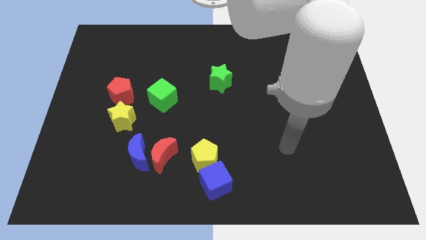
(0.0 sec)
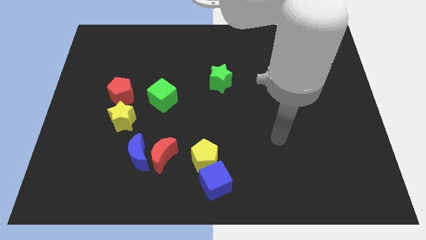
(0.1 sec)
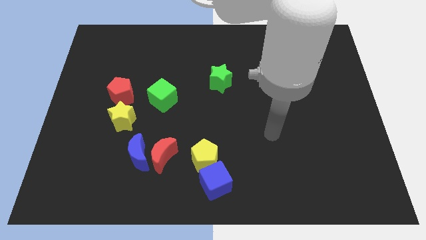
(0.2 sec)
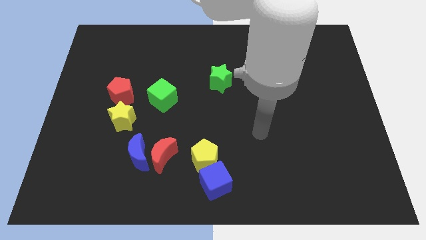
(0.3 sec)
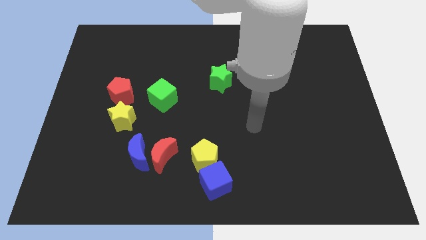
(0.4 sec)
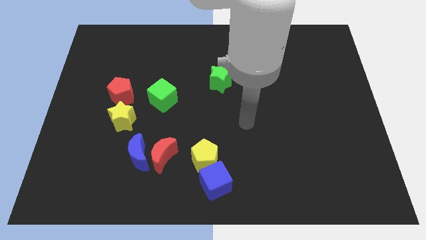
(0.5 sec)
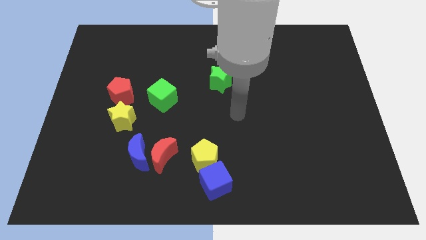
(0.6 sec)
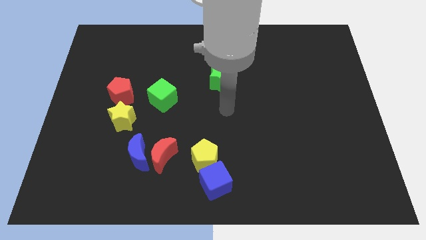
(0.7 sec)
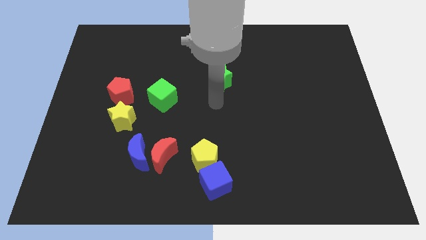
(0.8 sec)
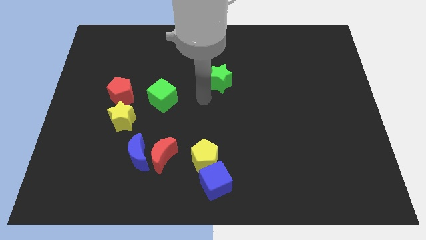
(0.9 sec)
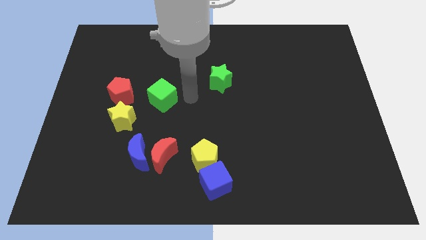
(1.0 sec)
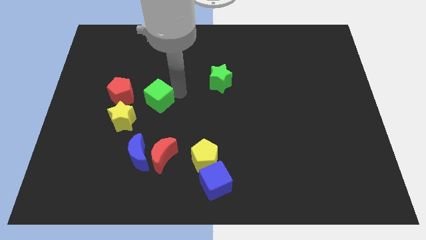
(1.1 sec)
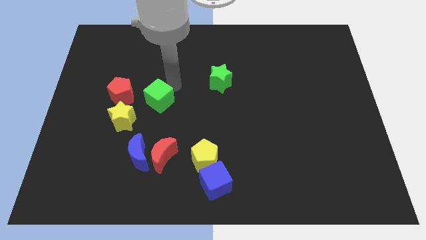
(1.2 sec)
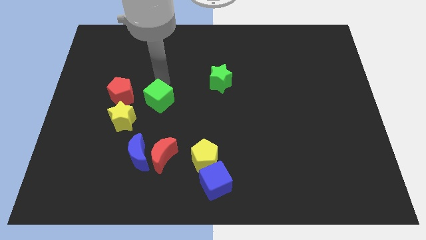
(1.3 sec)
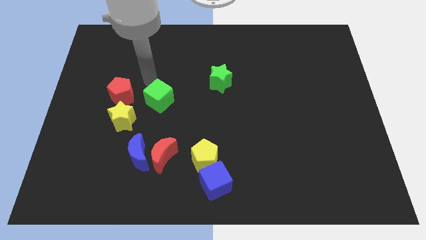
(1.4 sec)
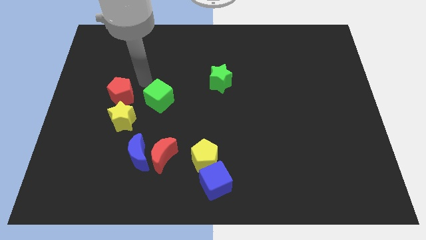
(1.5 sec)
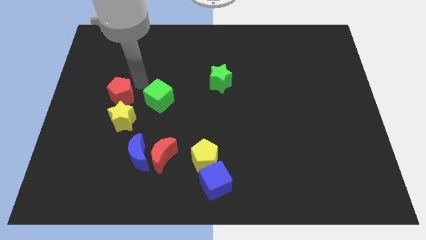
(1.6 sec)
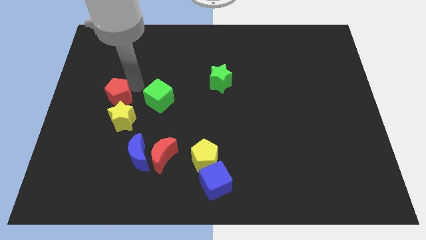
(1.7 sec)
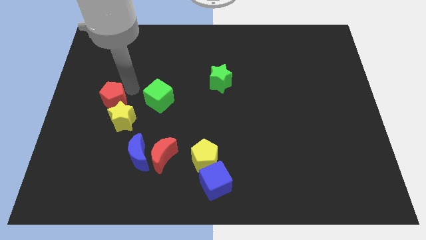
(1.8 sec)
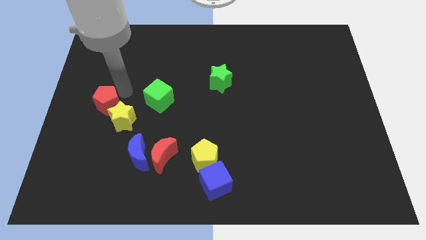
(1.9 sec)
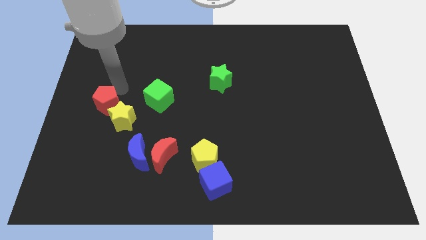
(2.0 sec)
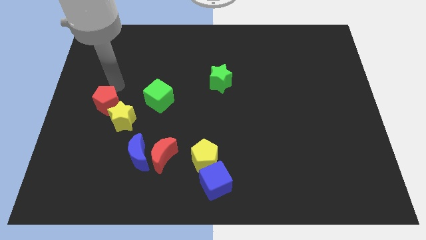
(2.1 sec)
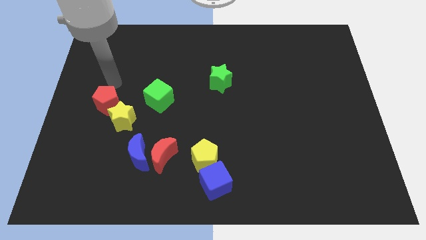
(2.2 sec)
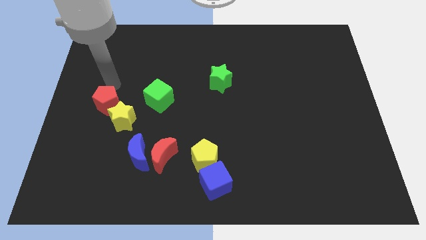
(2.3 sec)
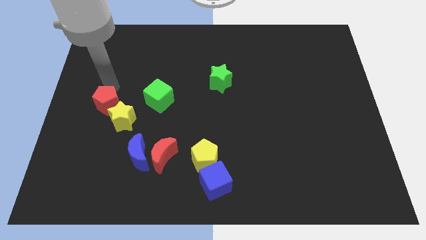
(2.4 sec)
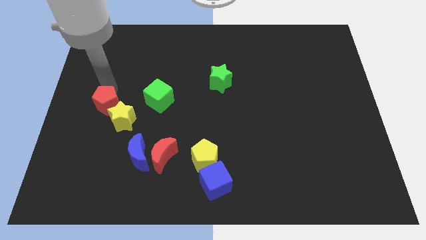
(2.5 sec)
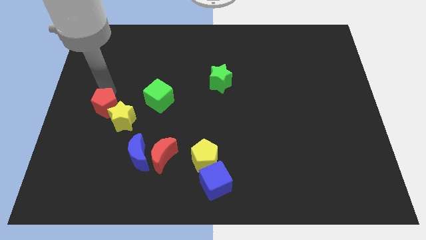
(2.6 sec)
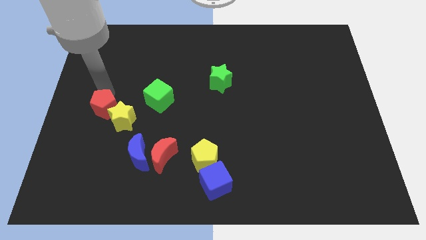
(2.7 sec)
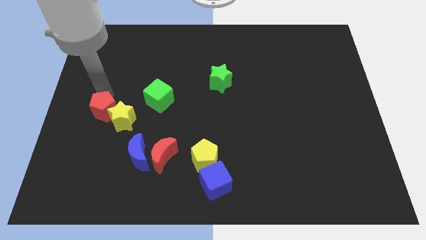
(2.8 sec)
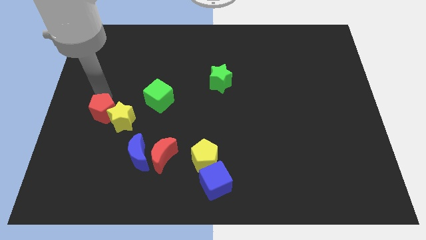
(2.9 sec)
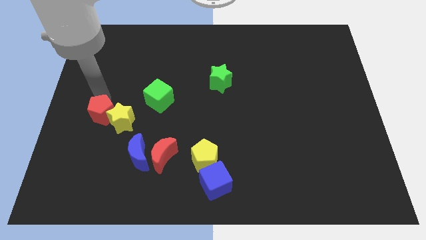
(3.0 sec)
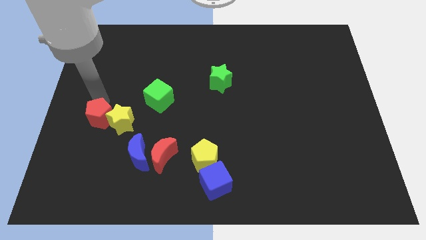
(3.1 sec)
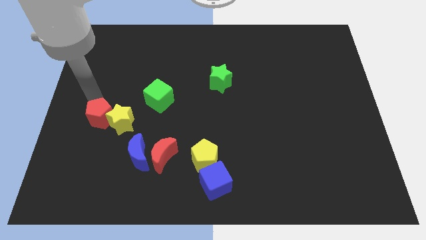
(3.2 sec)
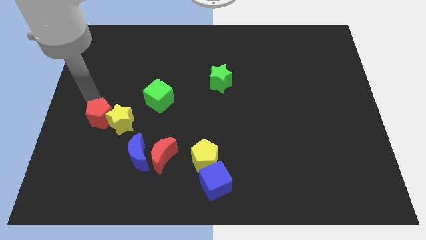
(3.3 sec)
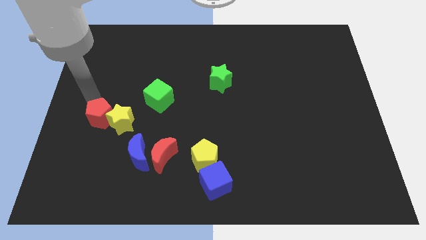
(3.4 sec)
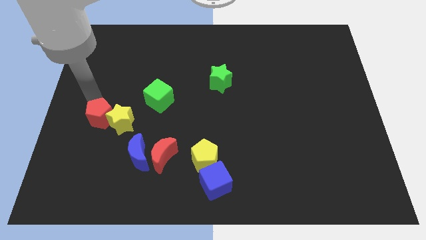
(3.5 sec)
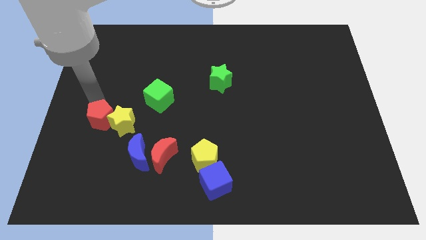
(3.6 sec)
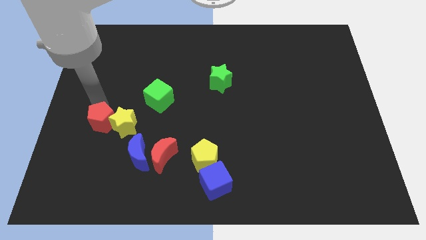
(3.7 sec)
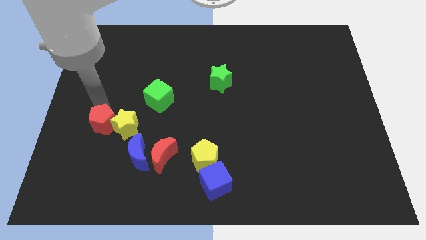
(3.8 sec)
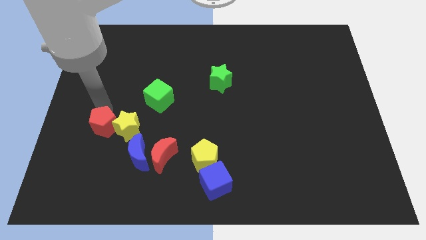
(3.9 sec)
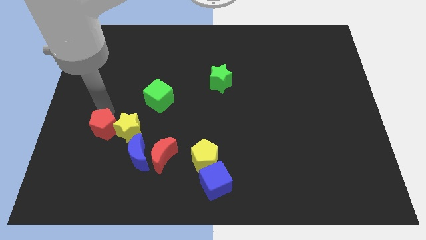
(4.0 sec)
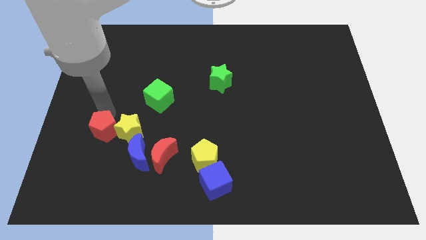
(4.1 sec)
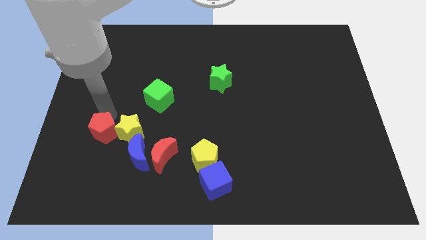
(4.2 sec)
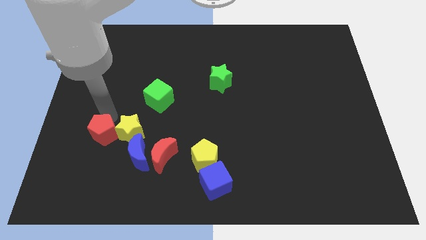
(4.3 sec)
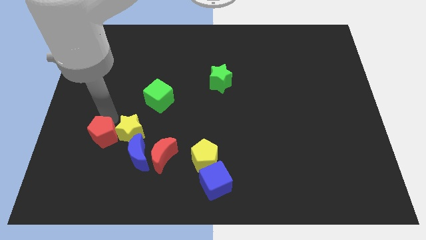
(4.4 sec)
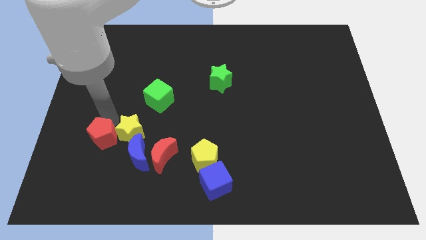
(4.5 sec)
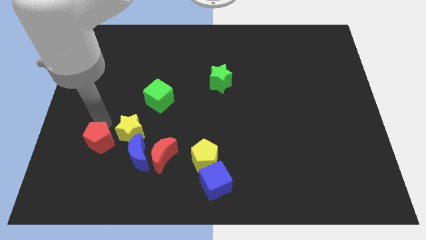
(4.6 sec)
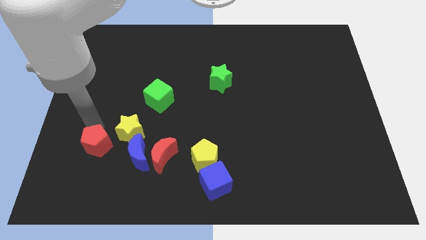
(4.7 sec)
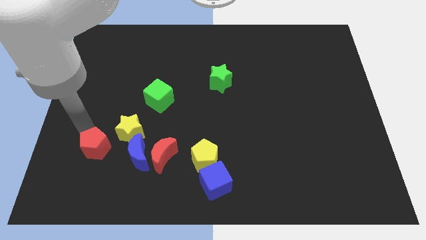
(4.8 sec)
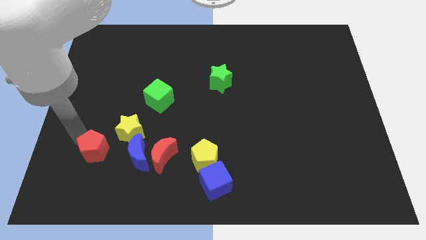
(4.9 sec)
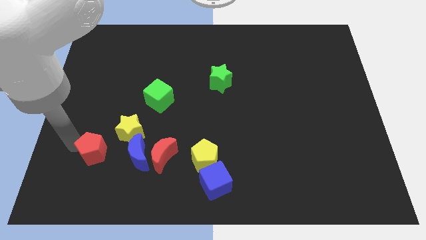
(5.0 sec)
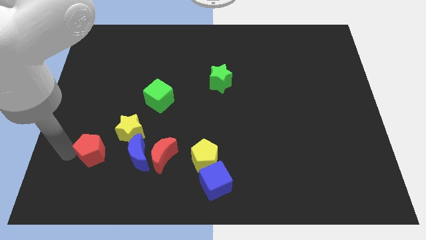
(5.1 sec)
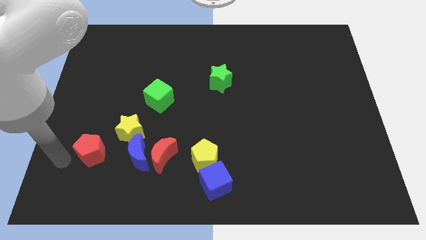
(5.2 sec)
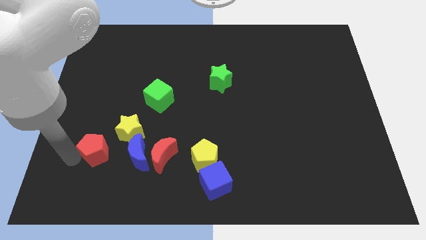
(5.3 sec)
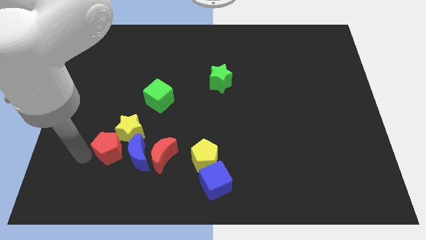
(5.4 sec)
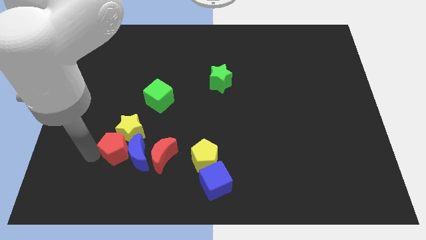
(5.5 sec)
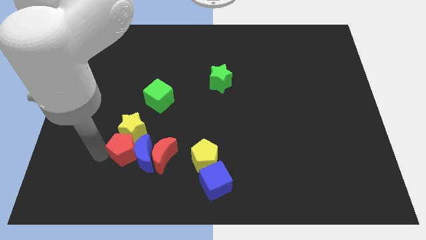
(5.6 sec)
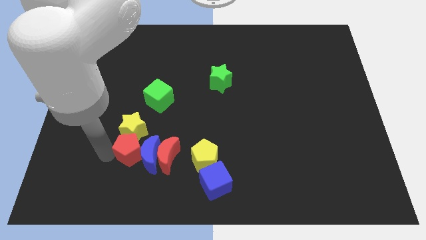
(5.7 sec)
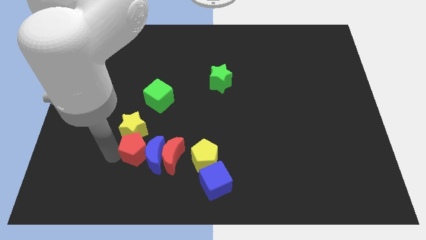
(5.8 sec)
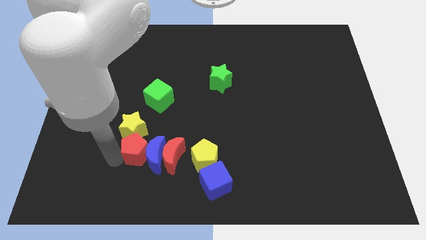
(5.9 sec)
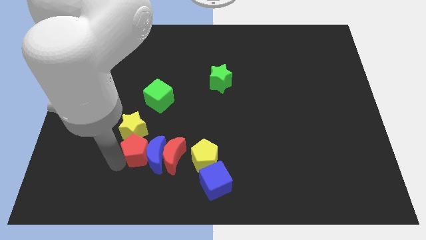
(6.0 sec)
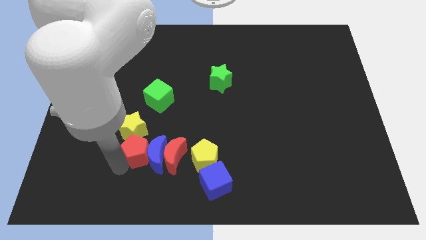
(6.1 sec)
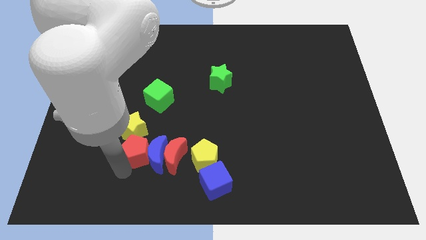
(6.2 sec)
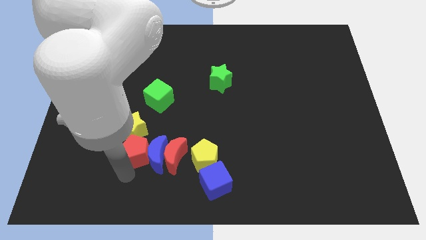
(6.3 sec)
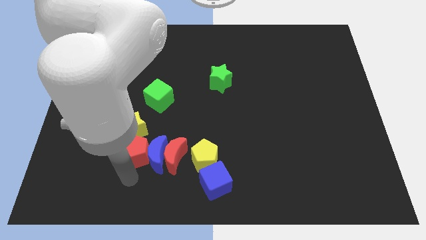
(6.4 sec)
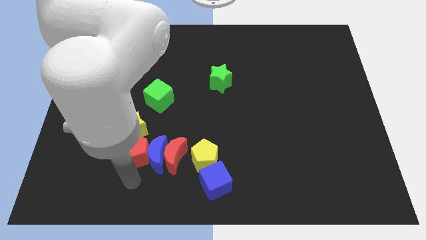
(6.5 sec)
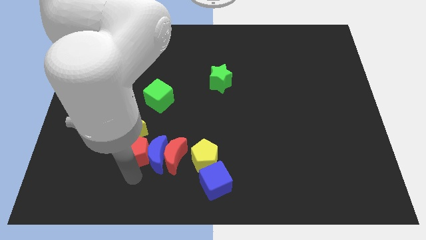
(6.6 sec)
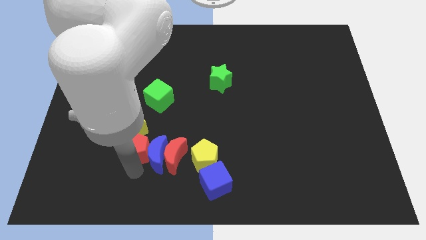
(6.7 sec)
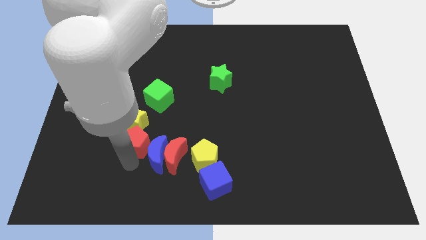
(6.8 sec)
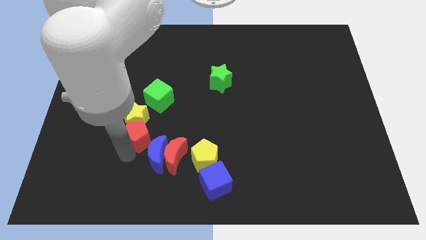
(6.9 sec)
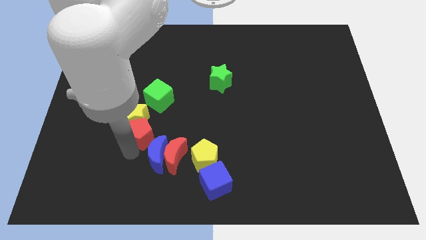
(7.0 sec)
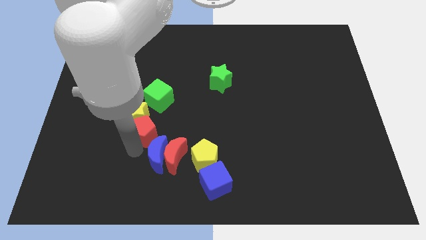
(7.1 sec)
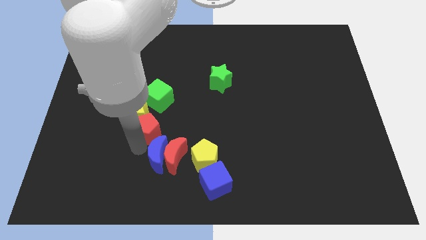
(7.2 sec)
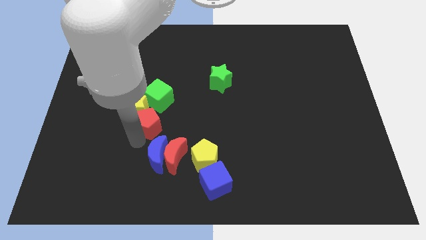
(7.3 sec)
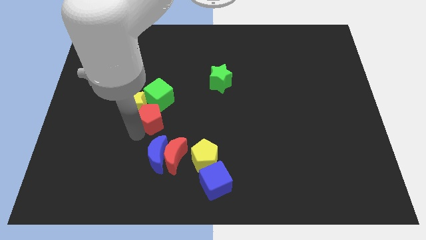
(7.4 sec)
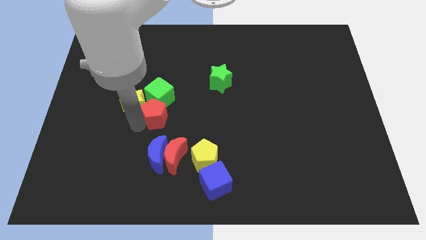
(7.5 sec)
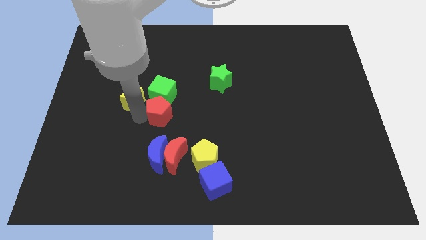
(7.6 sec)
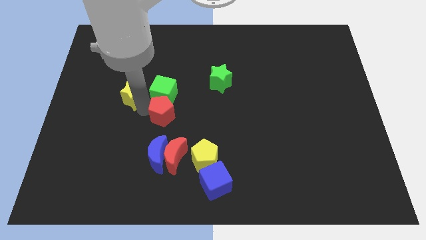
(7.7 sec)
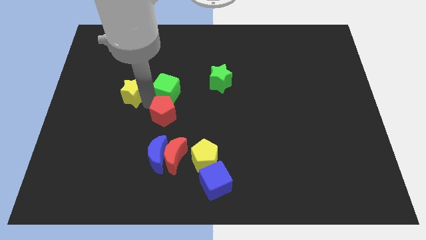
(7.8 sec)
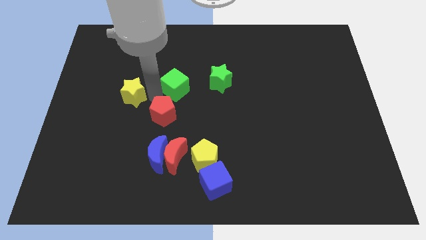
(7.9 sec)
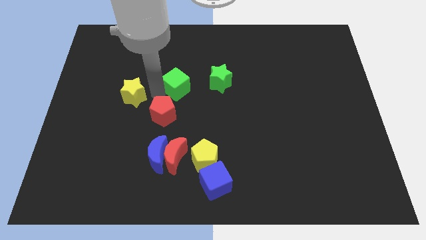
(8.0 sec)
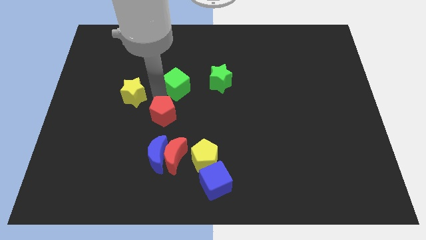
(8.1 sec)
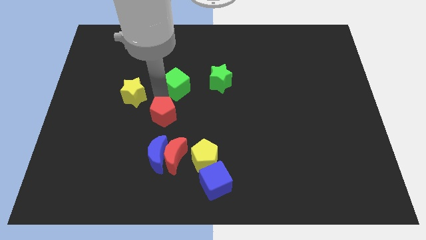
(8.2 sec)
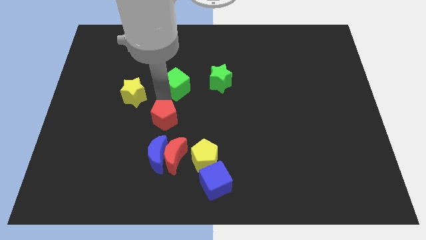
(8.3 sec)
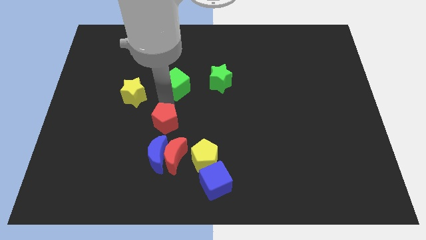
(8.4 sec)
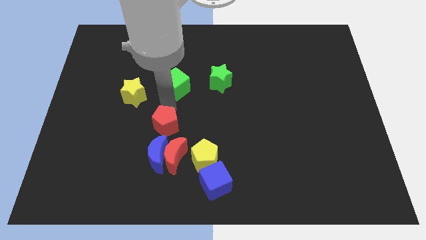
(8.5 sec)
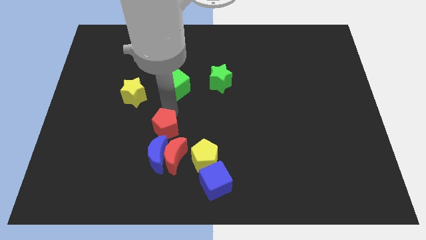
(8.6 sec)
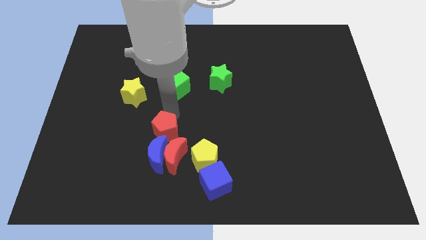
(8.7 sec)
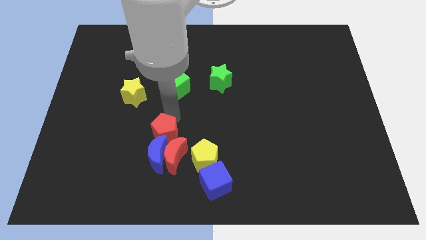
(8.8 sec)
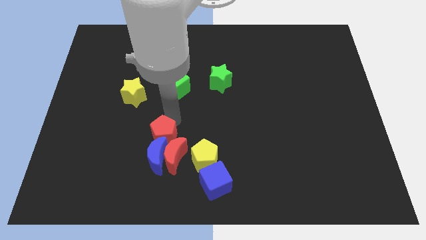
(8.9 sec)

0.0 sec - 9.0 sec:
slide the red pentagon towards the red moon
